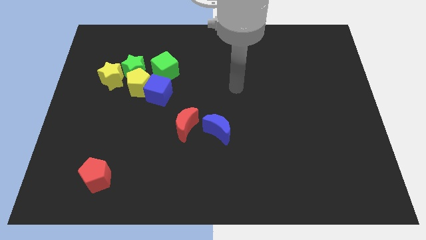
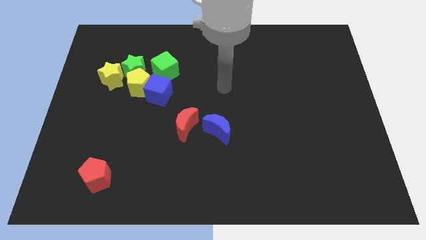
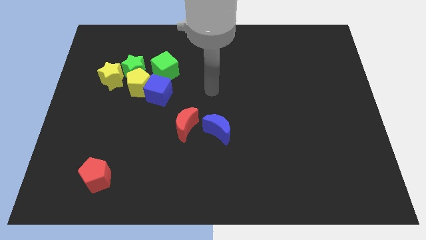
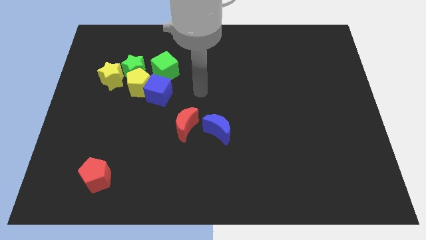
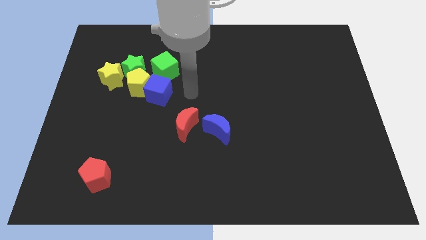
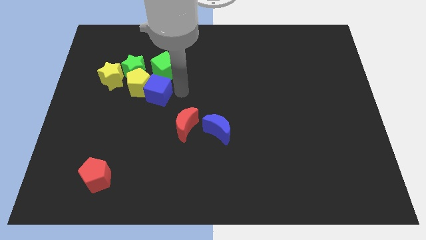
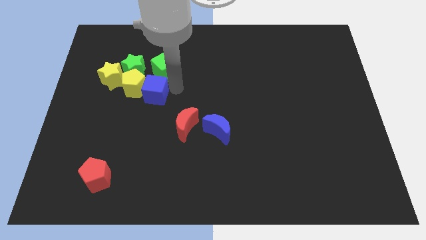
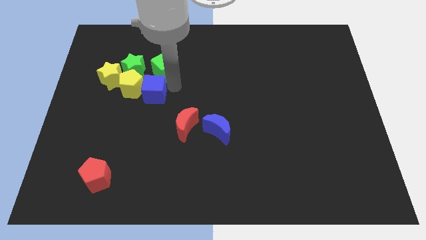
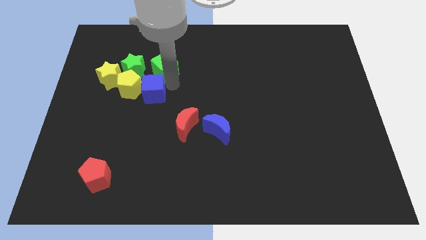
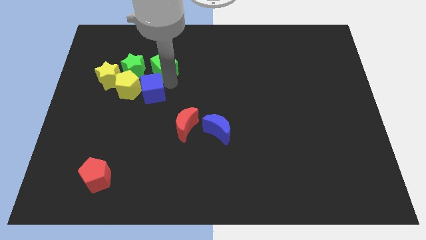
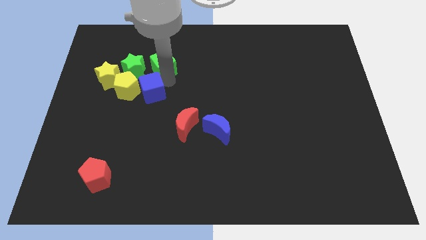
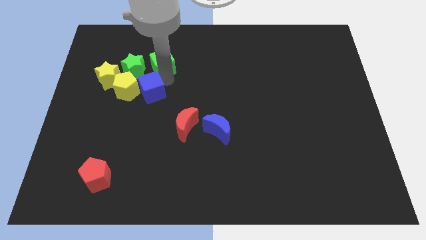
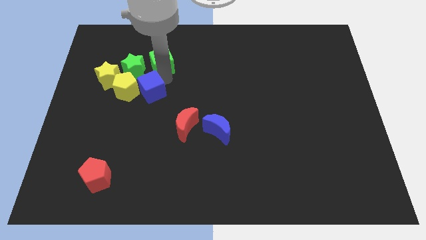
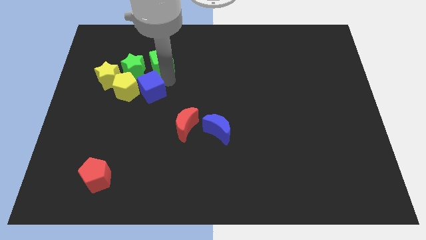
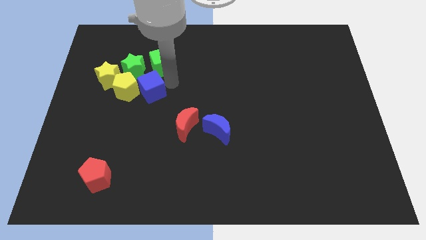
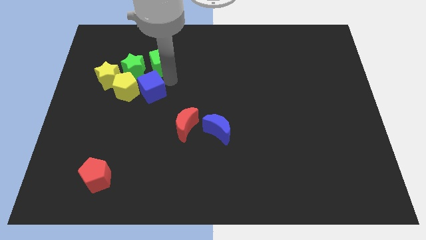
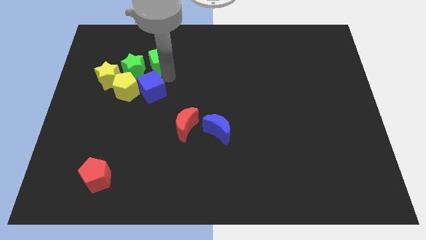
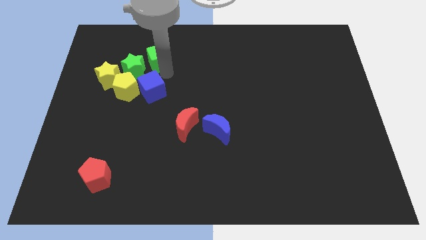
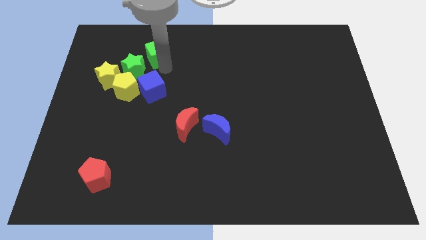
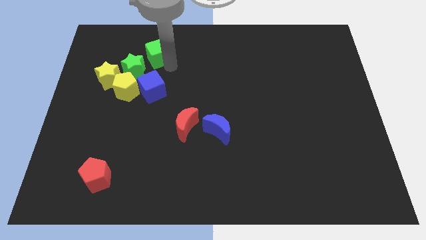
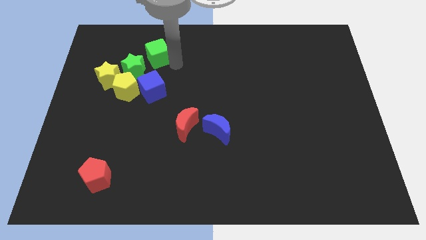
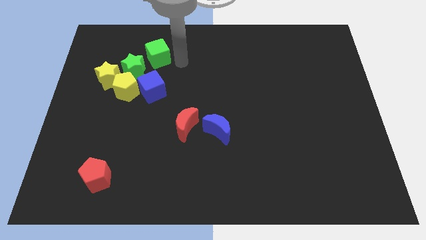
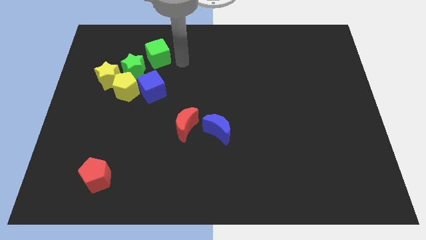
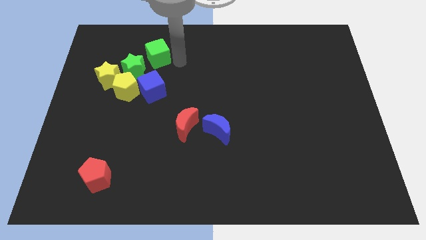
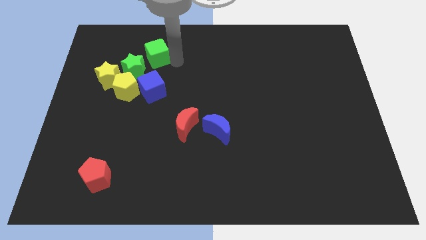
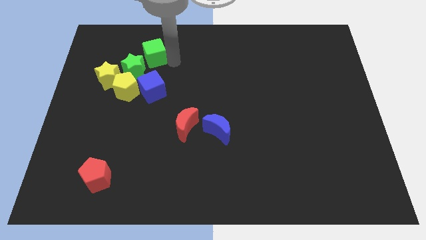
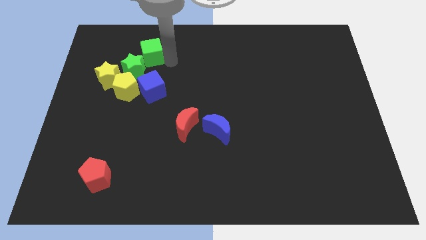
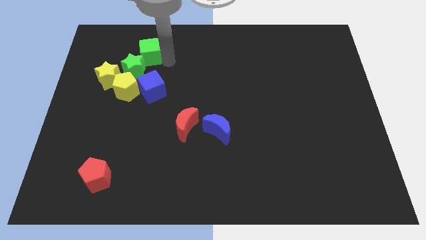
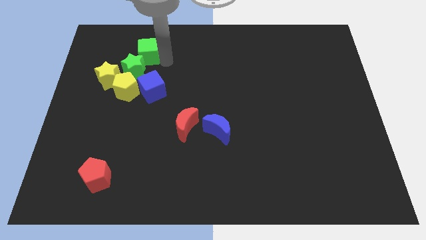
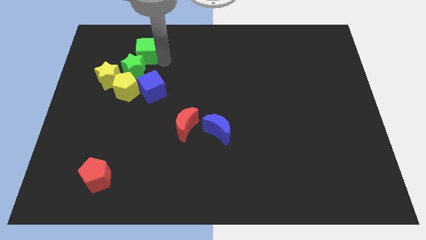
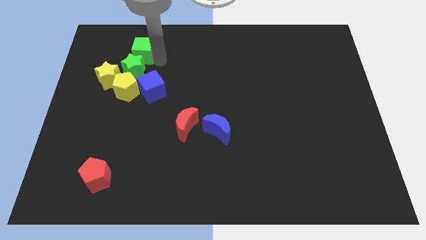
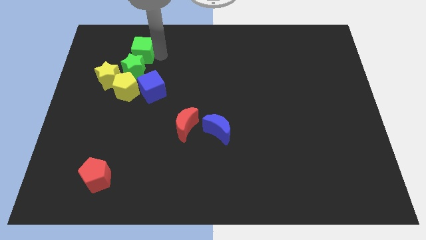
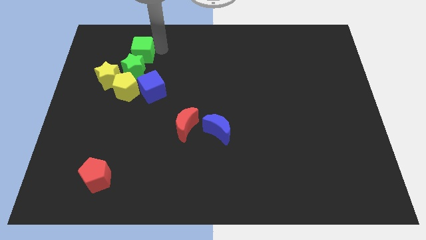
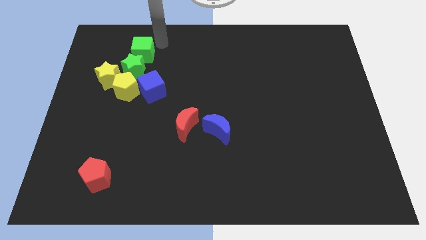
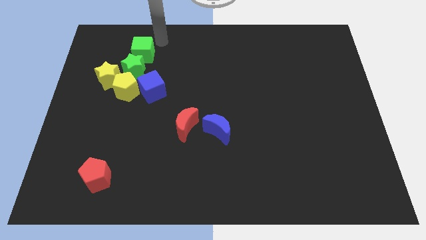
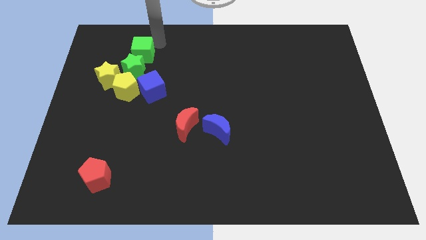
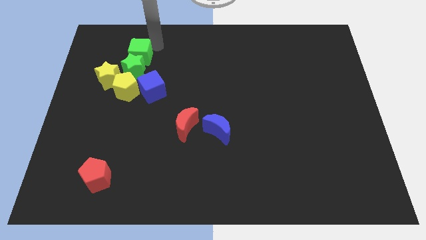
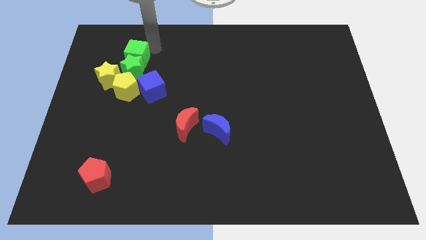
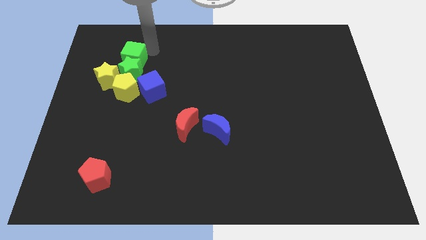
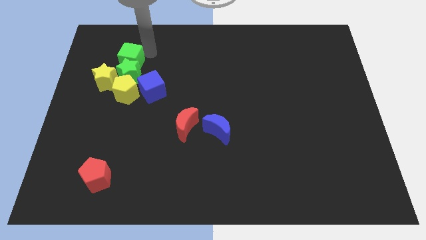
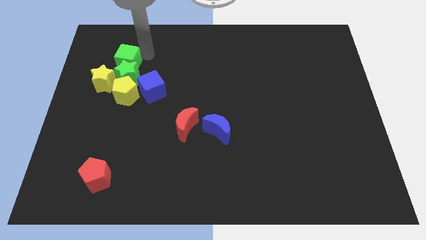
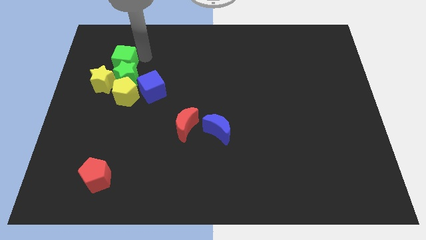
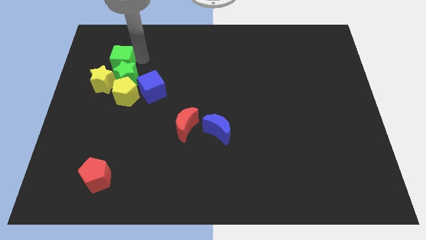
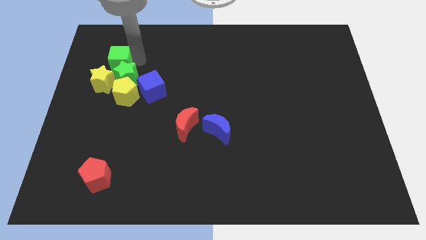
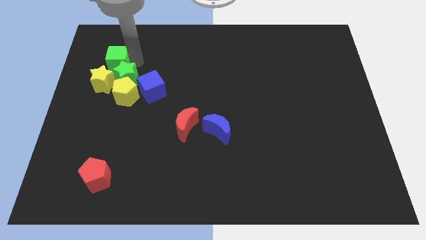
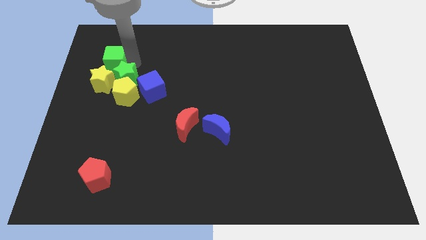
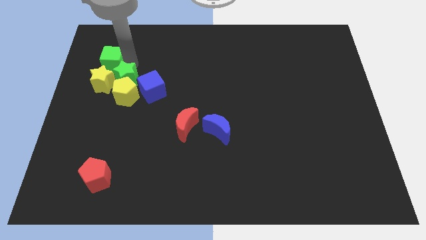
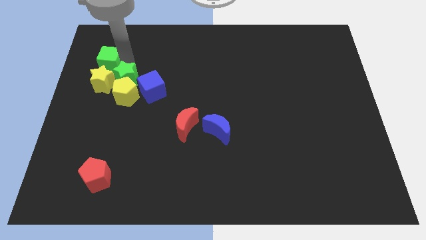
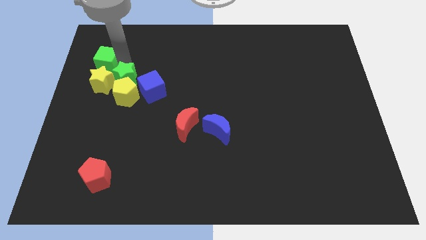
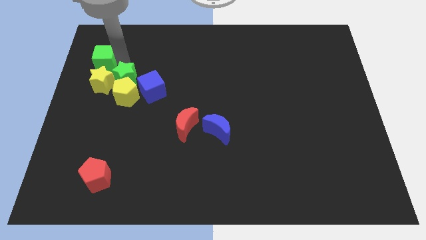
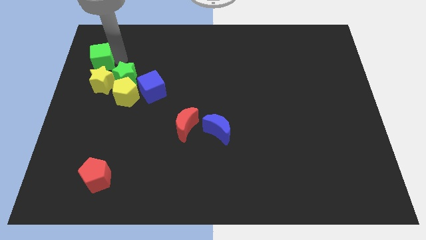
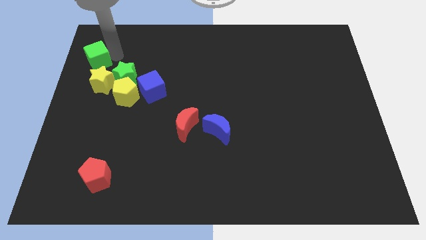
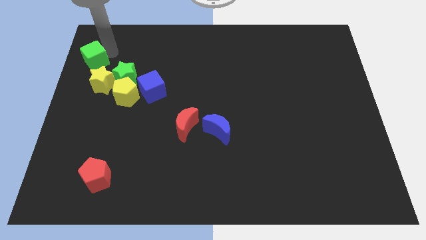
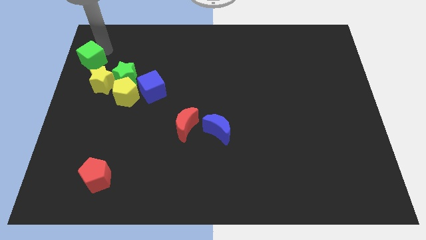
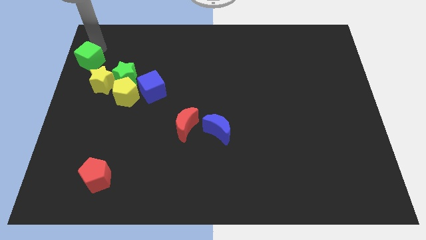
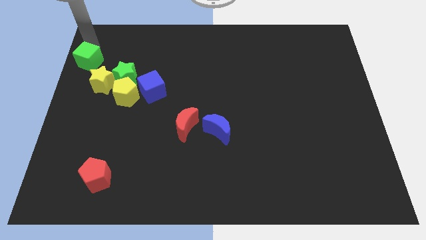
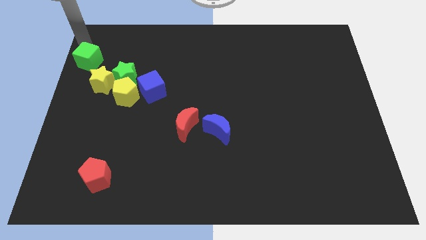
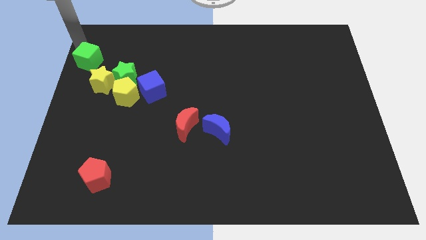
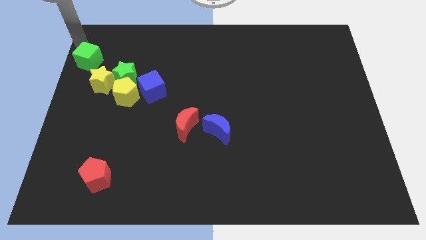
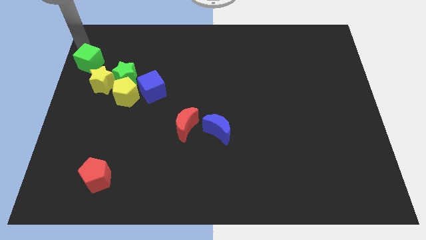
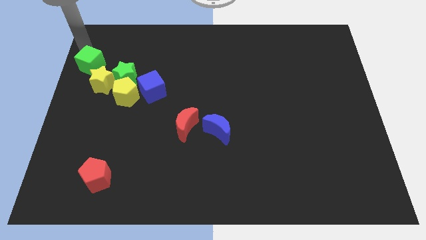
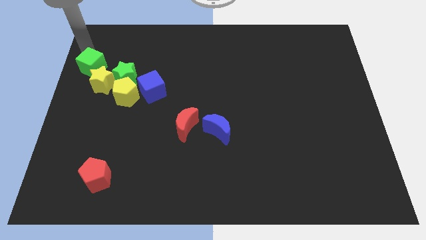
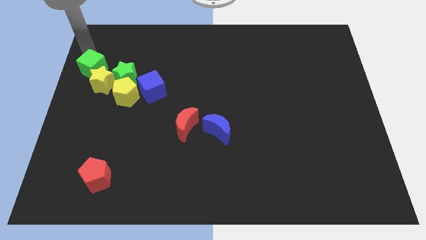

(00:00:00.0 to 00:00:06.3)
push the green cube to the yellow star
